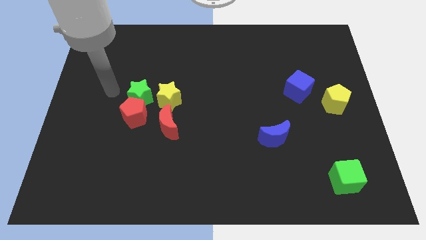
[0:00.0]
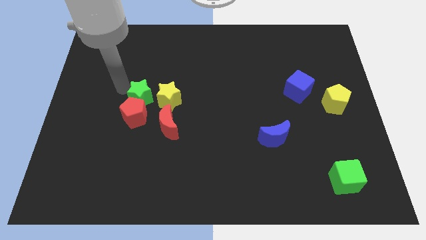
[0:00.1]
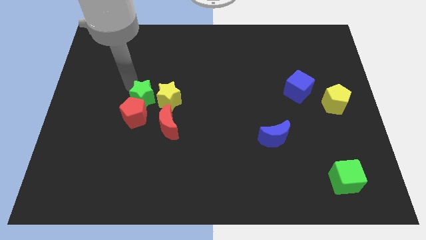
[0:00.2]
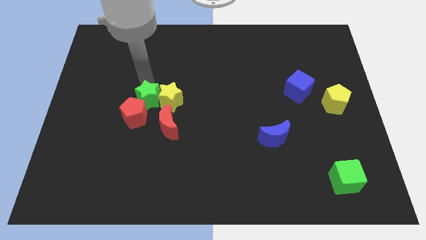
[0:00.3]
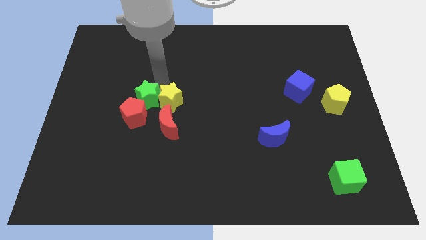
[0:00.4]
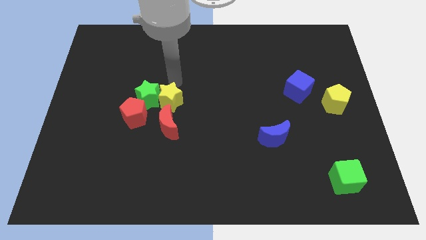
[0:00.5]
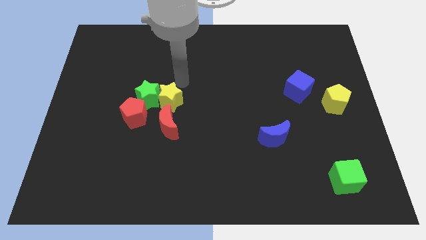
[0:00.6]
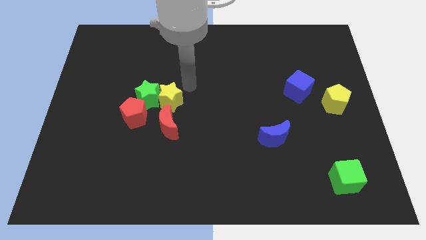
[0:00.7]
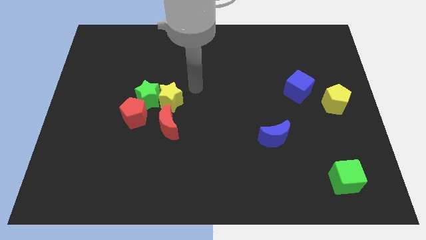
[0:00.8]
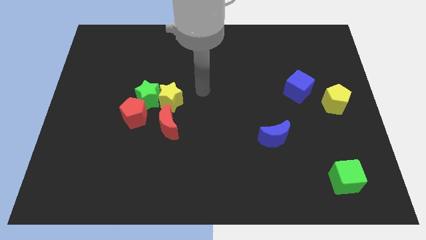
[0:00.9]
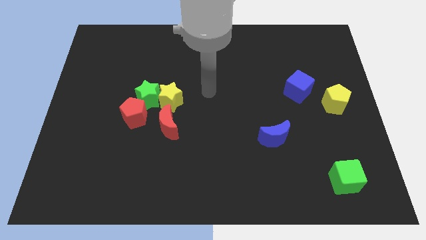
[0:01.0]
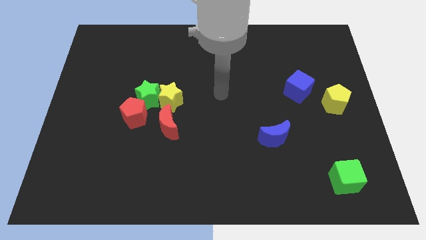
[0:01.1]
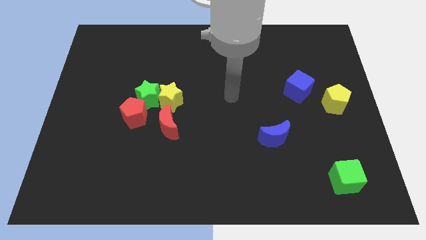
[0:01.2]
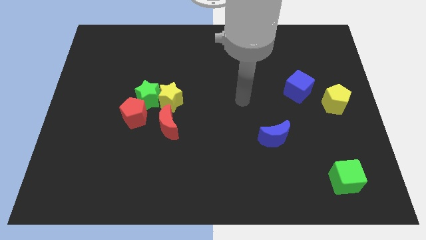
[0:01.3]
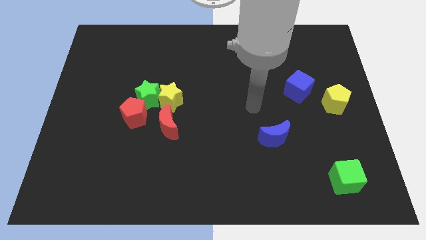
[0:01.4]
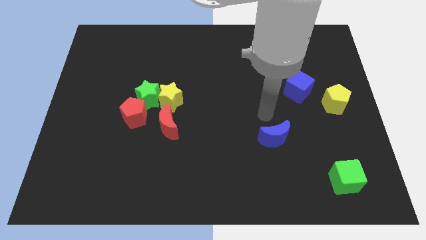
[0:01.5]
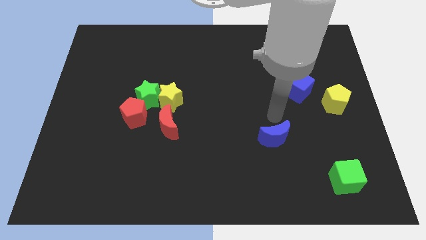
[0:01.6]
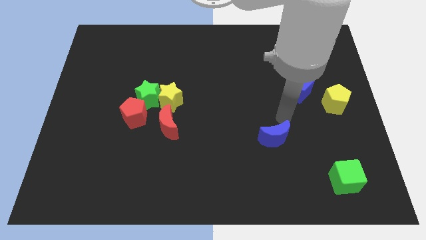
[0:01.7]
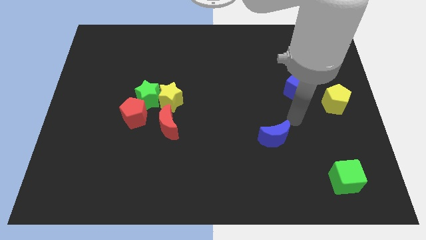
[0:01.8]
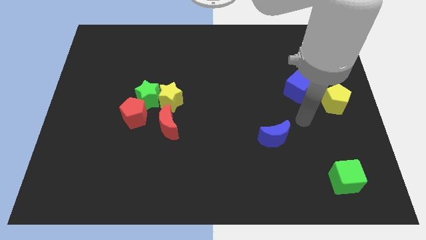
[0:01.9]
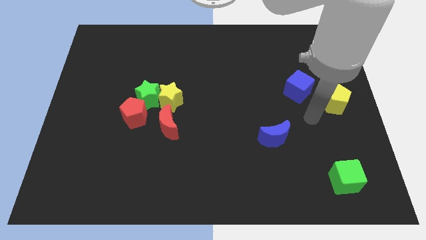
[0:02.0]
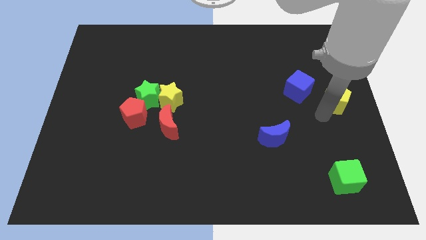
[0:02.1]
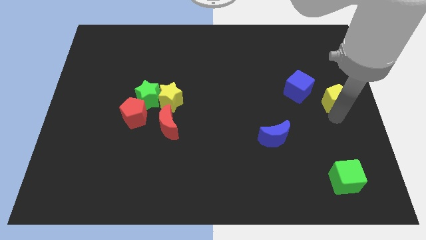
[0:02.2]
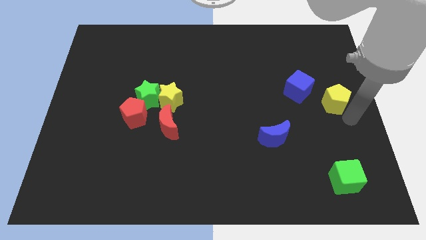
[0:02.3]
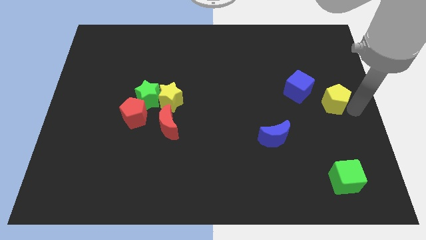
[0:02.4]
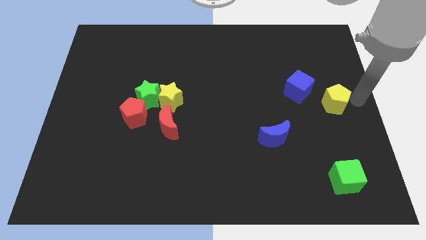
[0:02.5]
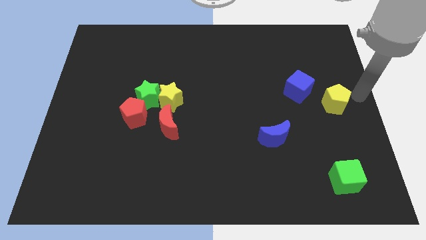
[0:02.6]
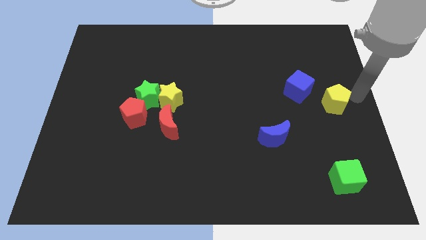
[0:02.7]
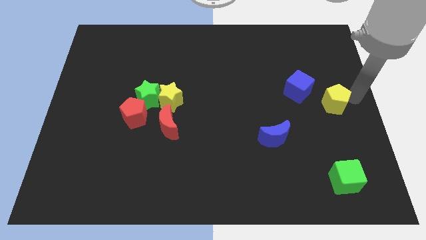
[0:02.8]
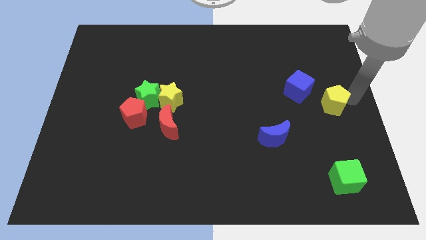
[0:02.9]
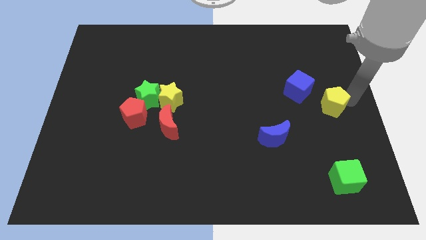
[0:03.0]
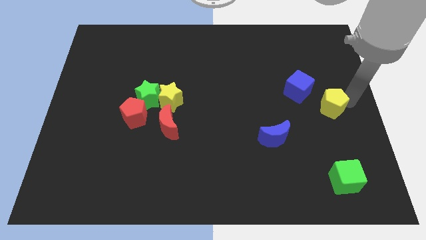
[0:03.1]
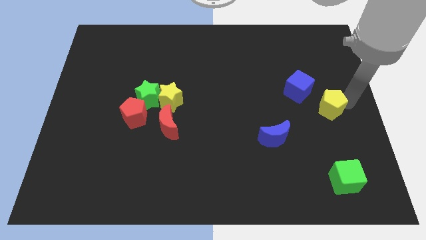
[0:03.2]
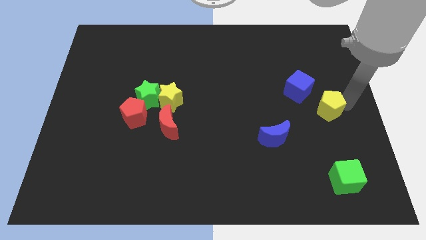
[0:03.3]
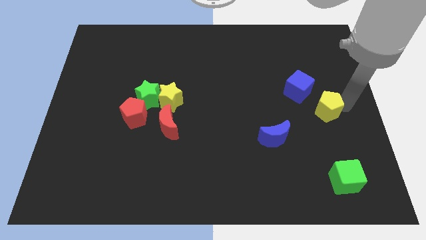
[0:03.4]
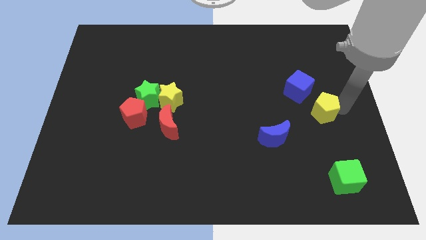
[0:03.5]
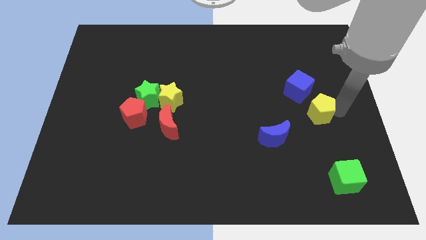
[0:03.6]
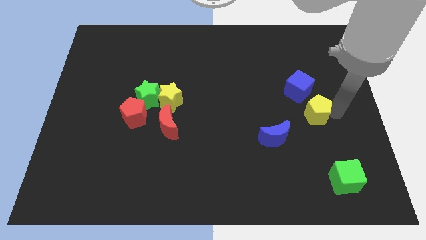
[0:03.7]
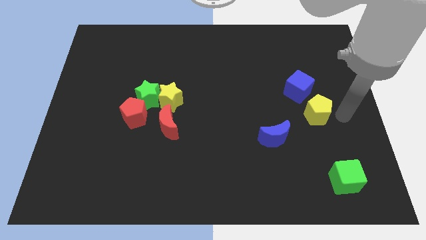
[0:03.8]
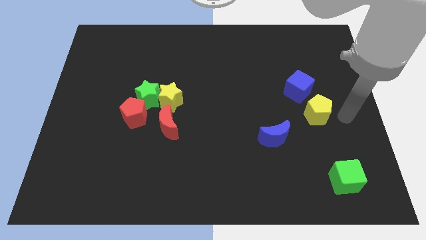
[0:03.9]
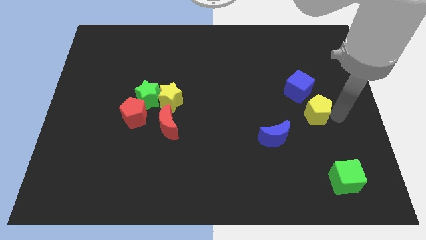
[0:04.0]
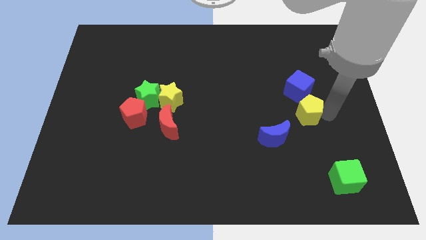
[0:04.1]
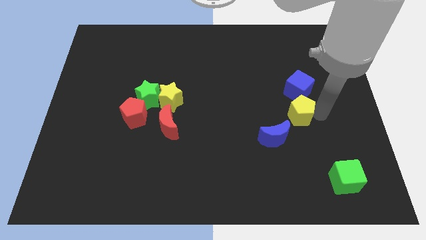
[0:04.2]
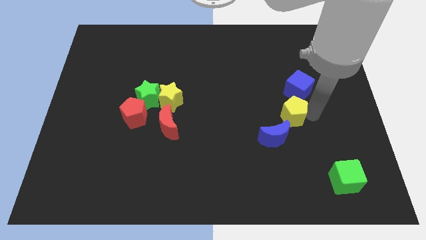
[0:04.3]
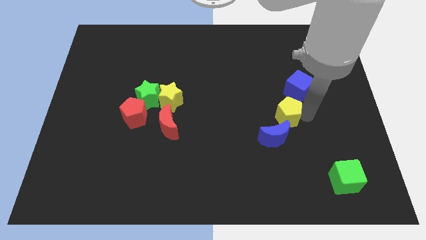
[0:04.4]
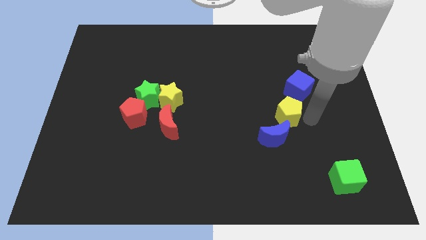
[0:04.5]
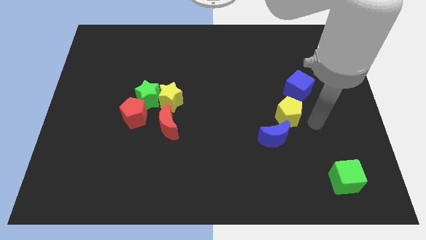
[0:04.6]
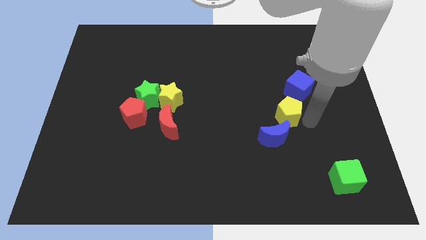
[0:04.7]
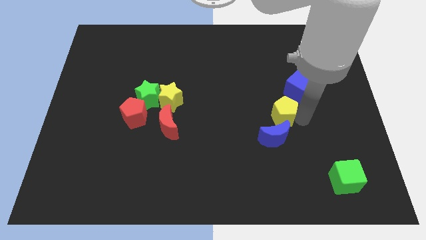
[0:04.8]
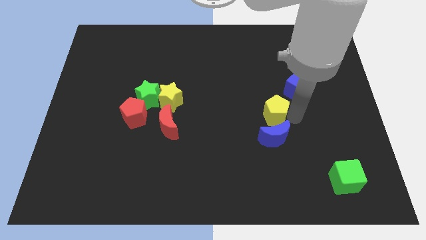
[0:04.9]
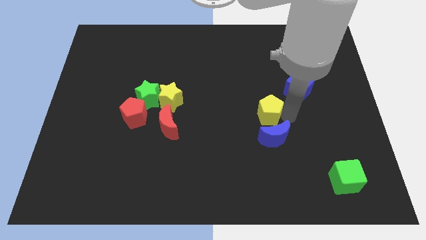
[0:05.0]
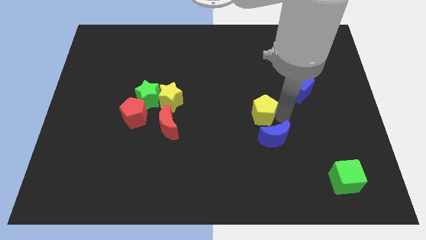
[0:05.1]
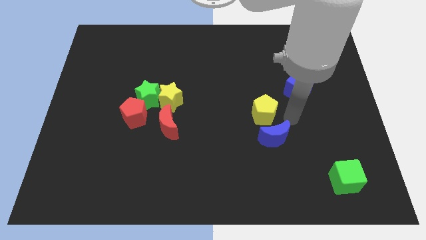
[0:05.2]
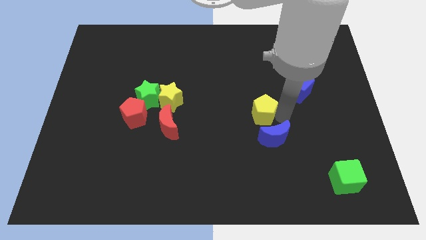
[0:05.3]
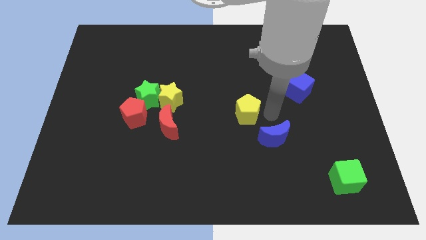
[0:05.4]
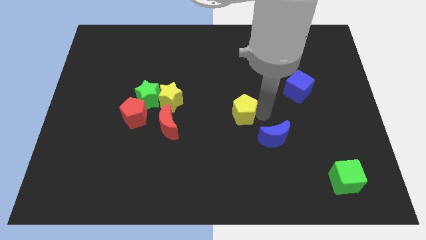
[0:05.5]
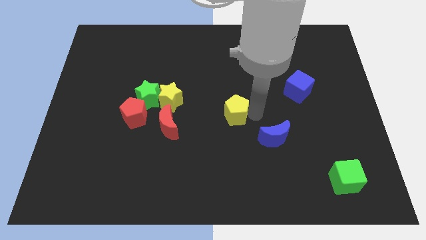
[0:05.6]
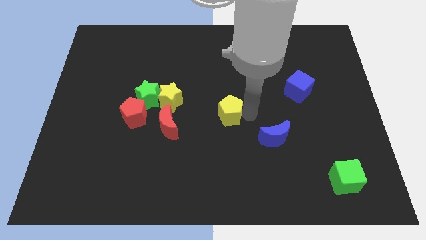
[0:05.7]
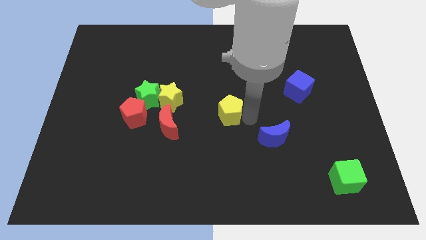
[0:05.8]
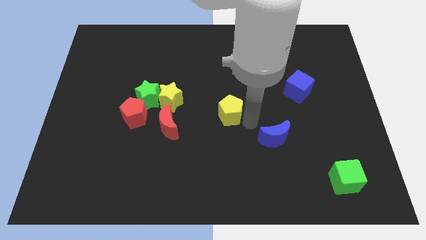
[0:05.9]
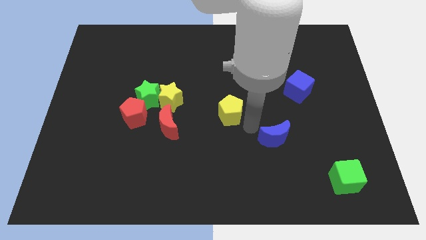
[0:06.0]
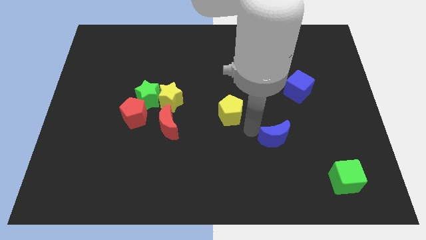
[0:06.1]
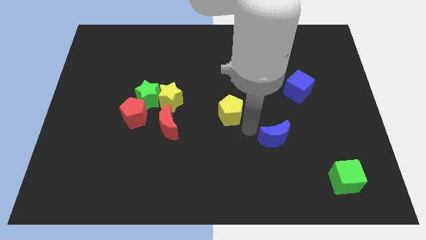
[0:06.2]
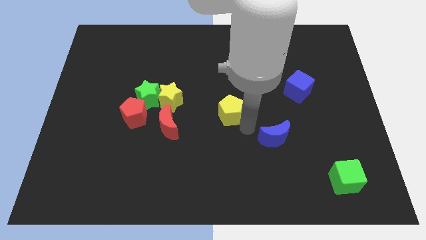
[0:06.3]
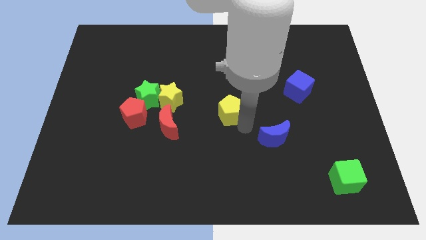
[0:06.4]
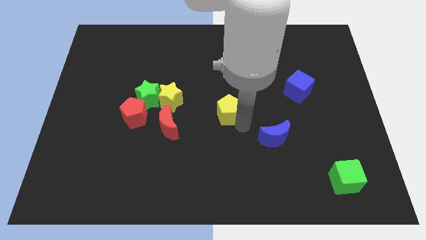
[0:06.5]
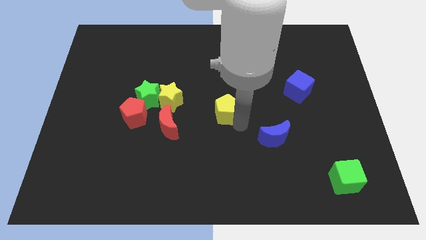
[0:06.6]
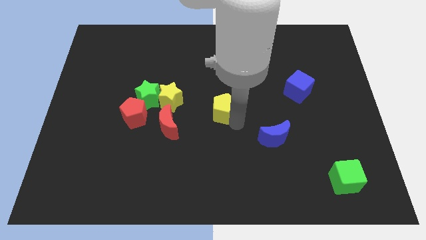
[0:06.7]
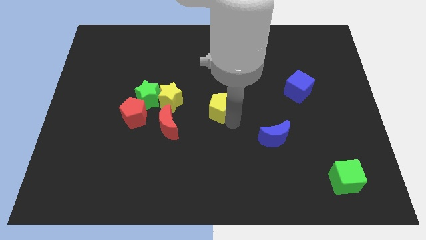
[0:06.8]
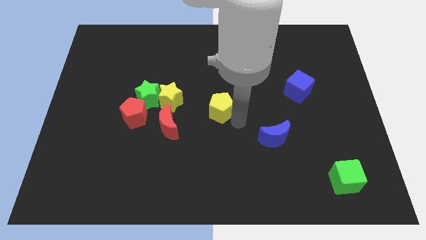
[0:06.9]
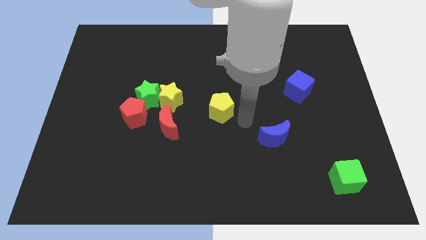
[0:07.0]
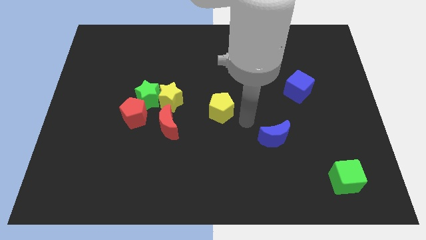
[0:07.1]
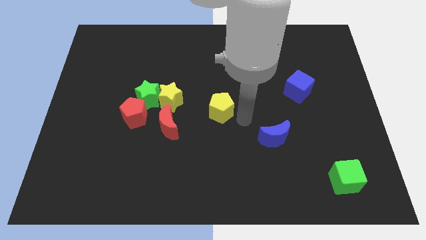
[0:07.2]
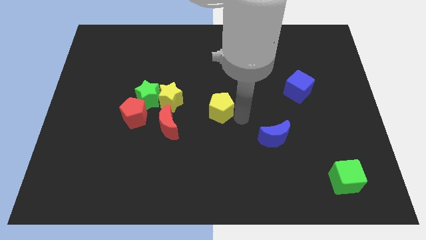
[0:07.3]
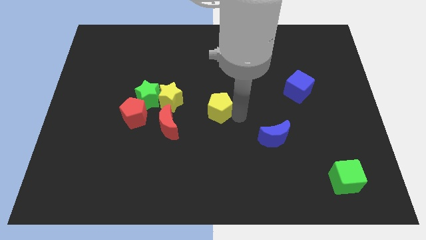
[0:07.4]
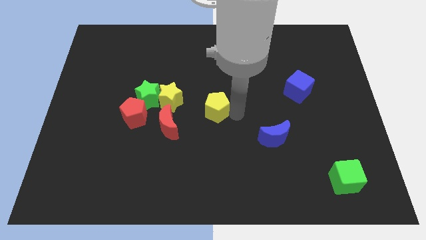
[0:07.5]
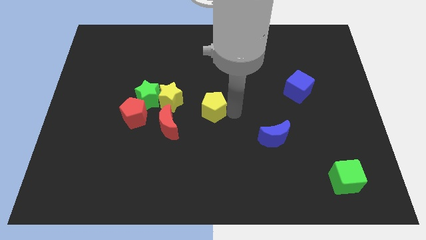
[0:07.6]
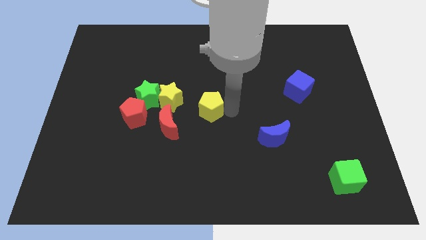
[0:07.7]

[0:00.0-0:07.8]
slide the yellow pentagon to the right of the green star
